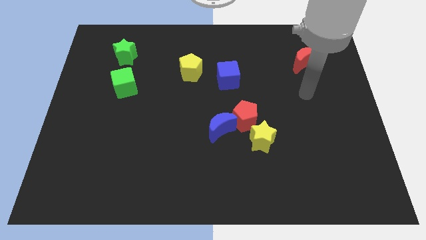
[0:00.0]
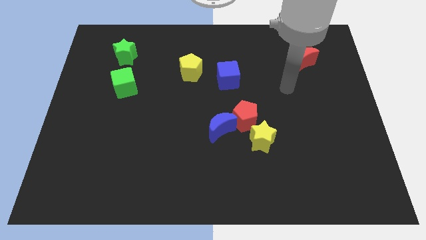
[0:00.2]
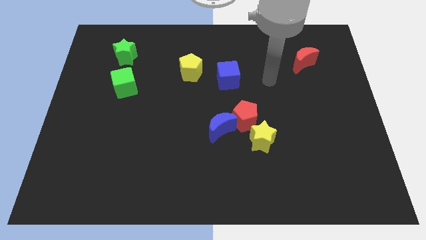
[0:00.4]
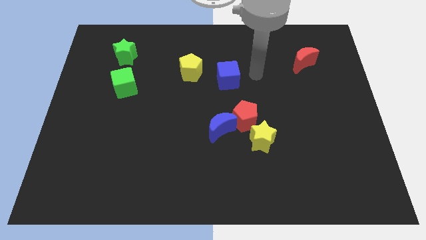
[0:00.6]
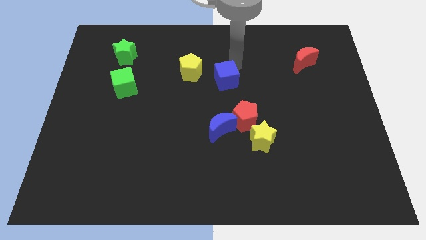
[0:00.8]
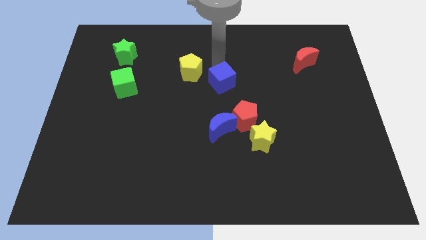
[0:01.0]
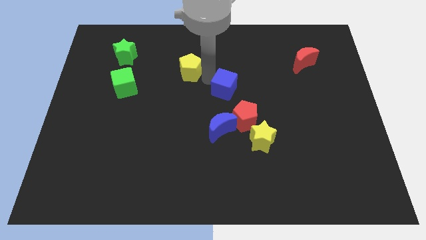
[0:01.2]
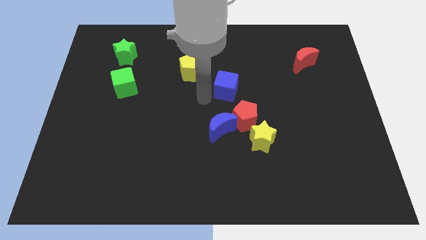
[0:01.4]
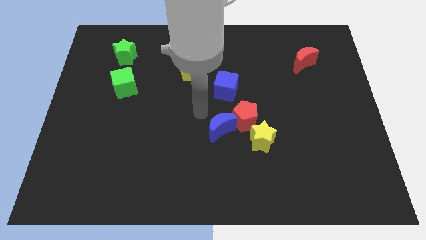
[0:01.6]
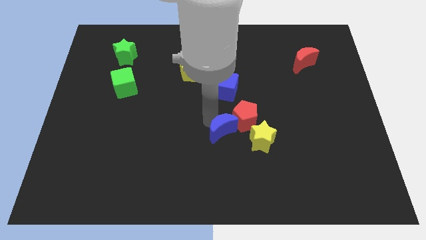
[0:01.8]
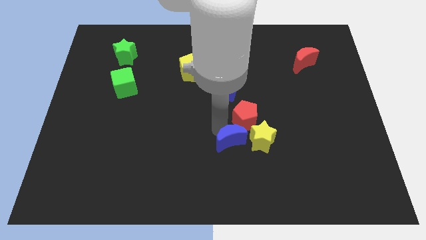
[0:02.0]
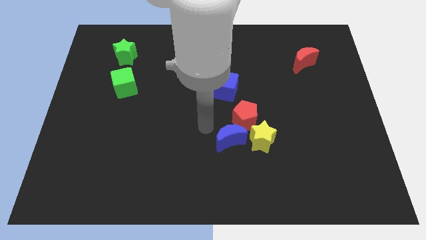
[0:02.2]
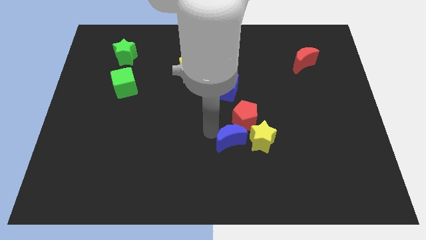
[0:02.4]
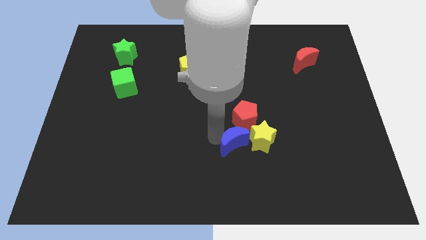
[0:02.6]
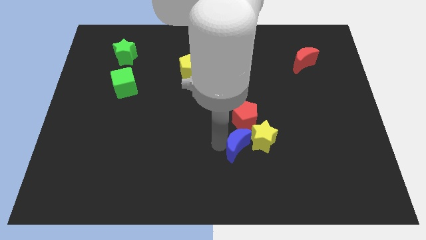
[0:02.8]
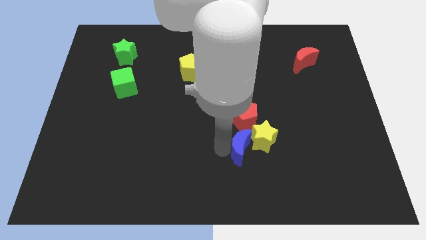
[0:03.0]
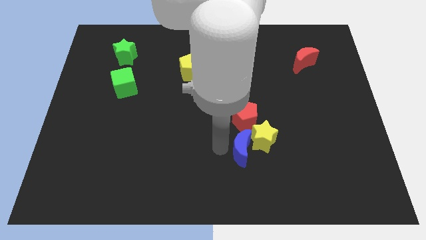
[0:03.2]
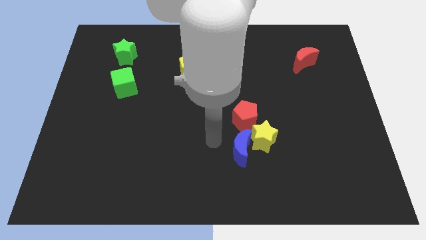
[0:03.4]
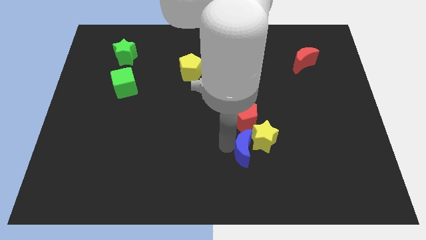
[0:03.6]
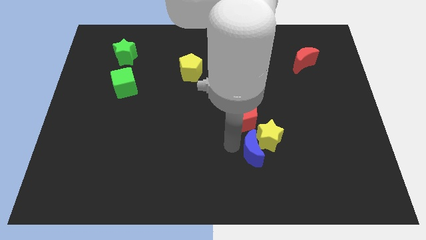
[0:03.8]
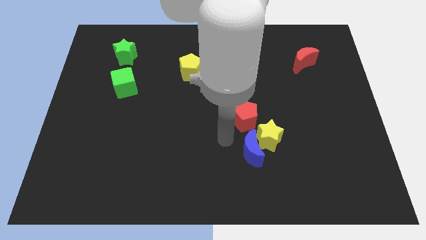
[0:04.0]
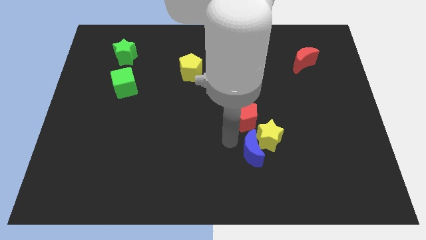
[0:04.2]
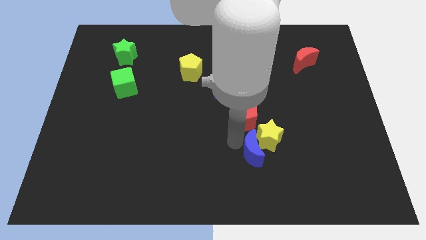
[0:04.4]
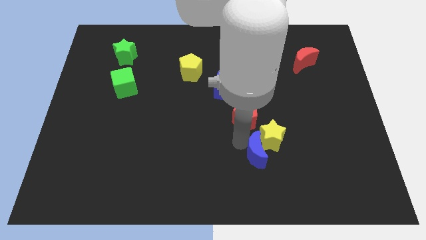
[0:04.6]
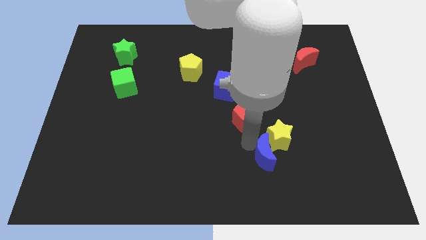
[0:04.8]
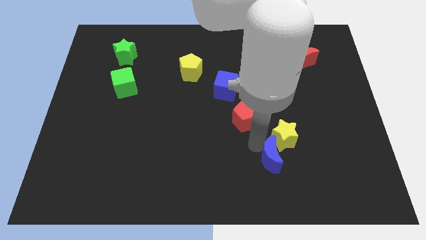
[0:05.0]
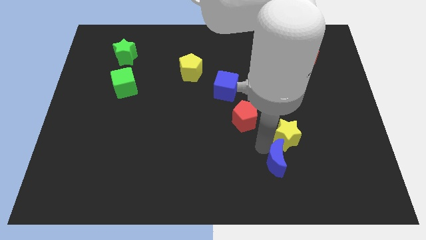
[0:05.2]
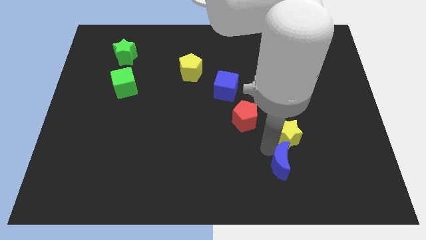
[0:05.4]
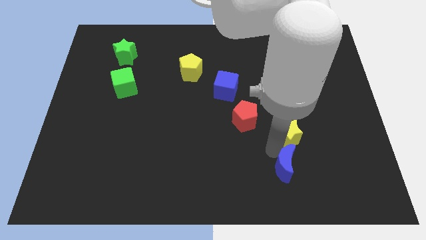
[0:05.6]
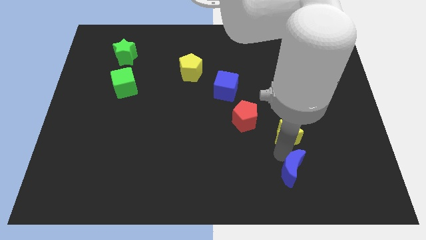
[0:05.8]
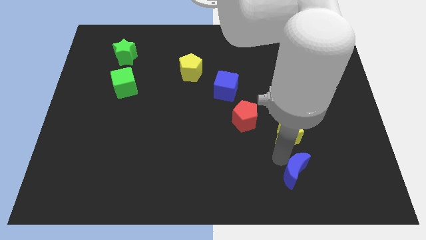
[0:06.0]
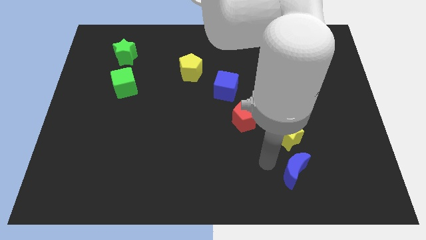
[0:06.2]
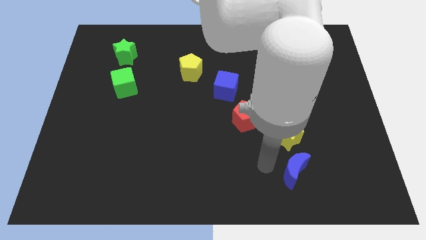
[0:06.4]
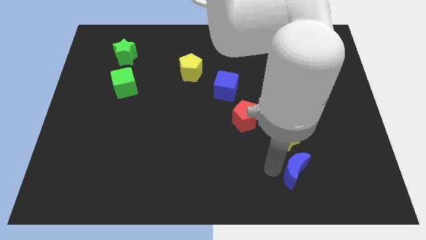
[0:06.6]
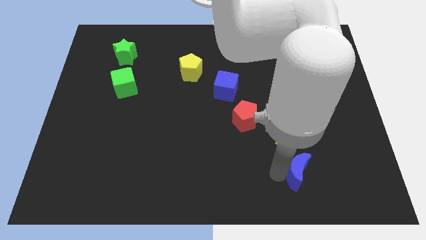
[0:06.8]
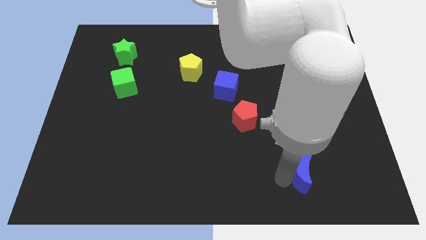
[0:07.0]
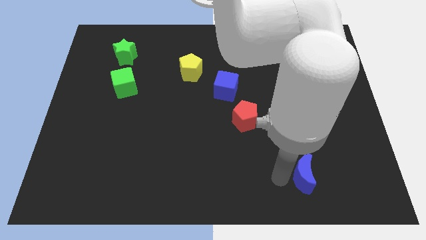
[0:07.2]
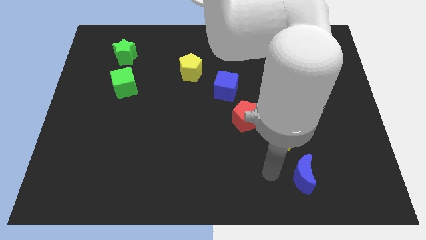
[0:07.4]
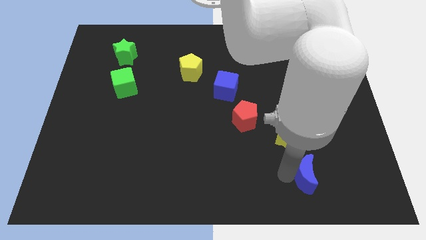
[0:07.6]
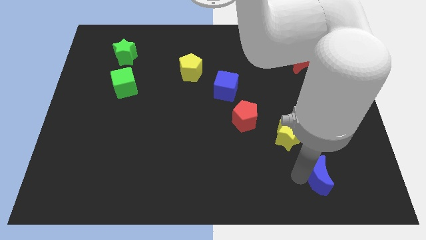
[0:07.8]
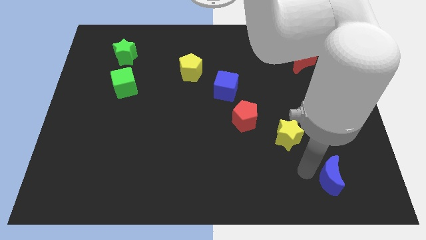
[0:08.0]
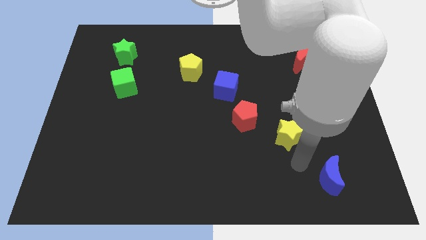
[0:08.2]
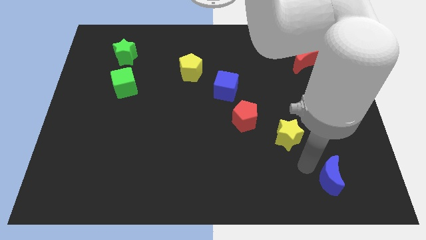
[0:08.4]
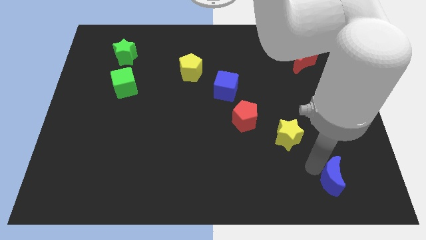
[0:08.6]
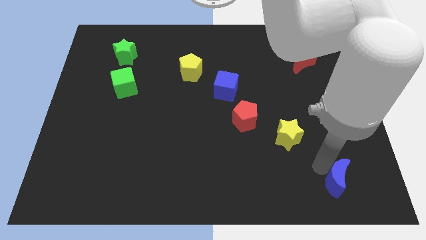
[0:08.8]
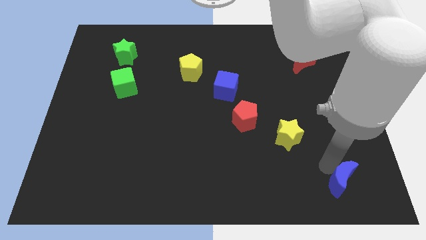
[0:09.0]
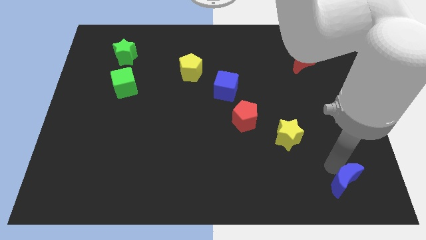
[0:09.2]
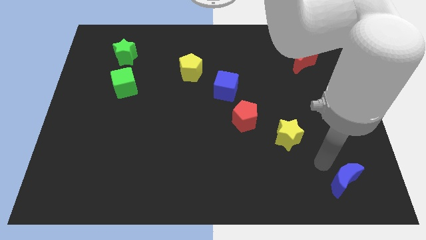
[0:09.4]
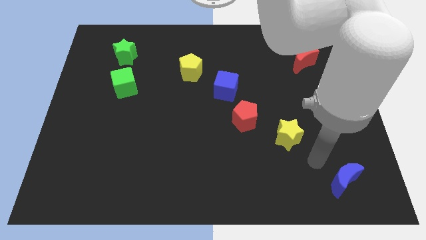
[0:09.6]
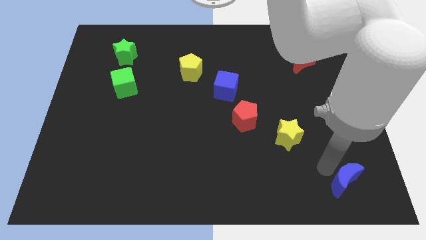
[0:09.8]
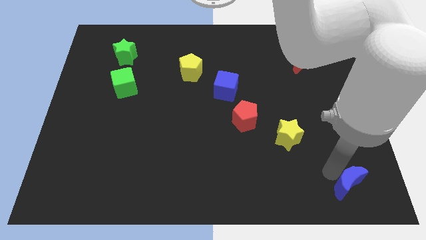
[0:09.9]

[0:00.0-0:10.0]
slide the blue moon to the bottom right

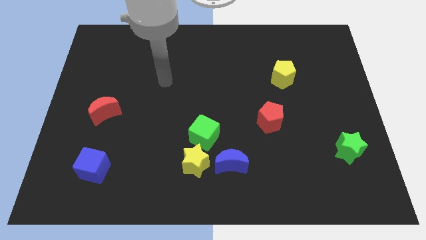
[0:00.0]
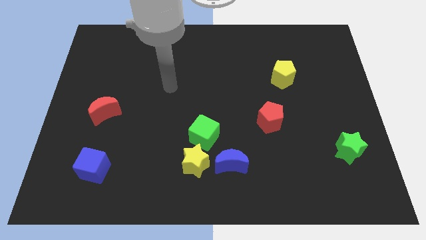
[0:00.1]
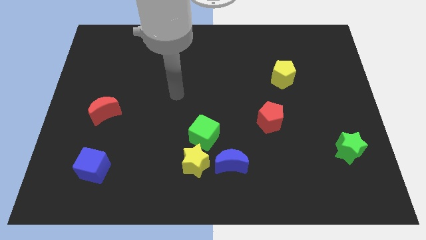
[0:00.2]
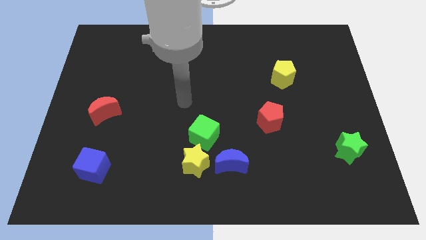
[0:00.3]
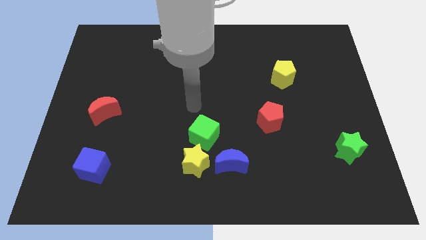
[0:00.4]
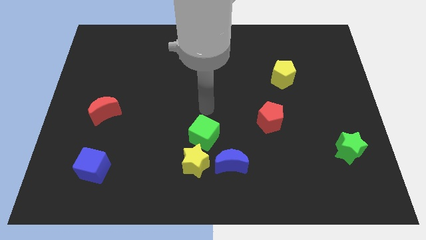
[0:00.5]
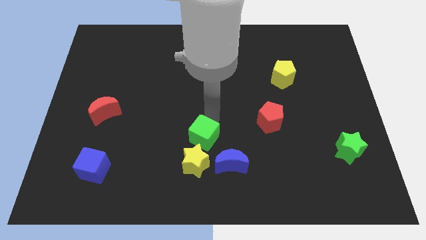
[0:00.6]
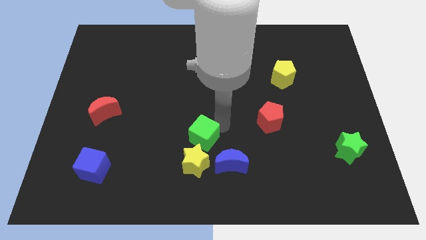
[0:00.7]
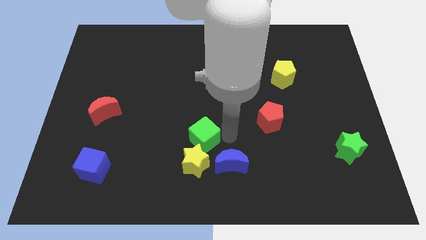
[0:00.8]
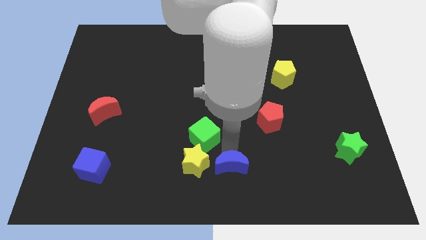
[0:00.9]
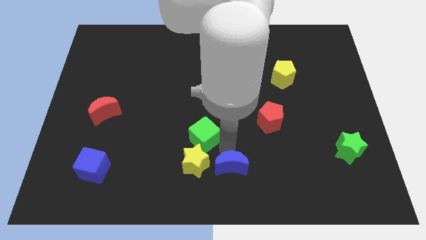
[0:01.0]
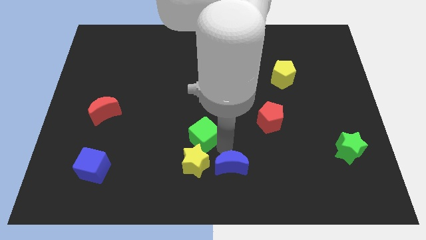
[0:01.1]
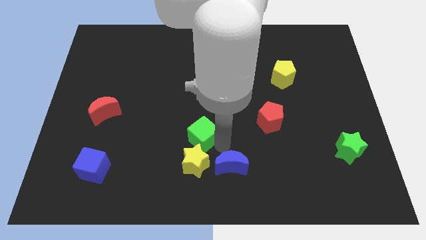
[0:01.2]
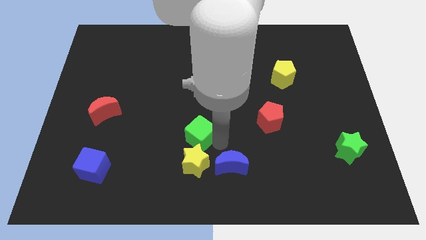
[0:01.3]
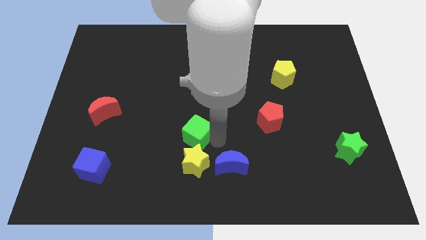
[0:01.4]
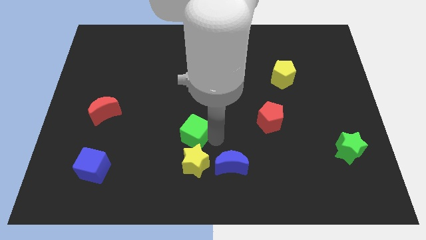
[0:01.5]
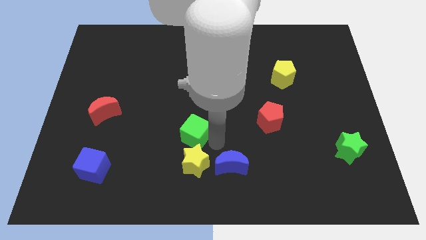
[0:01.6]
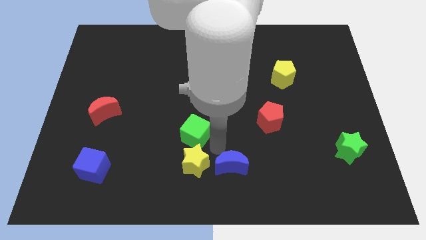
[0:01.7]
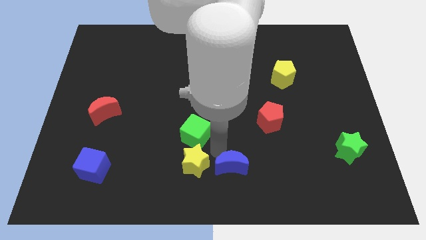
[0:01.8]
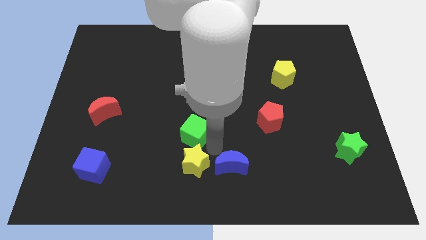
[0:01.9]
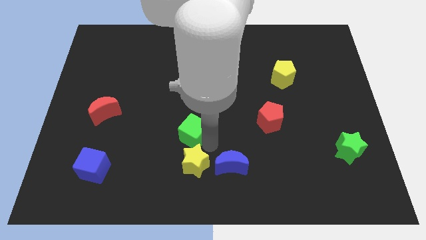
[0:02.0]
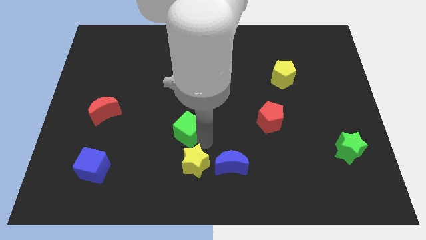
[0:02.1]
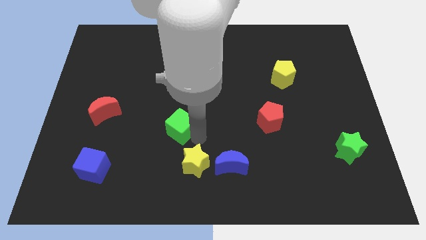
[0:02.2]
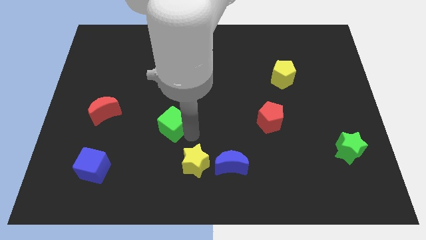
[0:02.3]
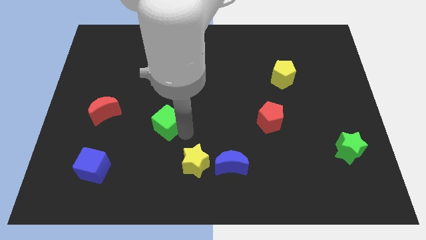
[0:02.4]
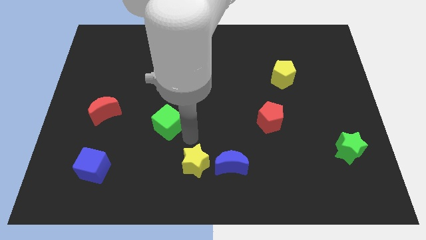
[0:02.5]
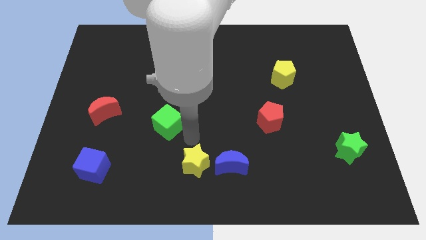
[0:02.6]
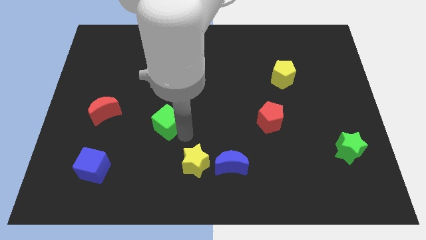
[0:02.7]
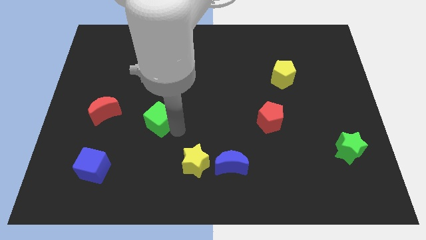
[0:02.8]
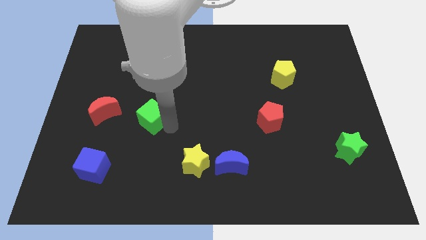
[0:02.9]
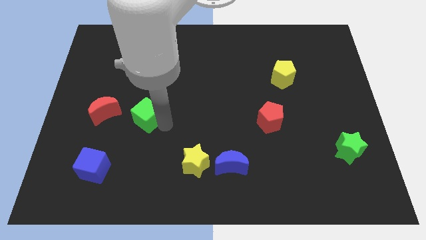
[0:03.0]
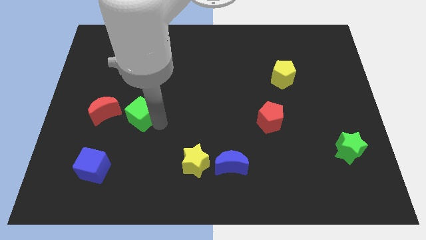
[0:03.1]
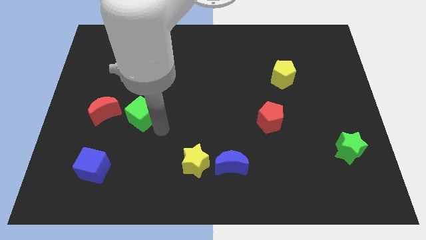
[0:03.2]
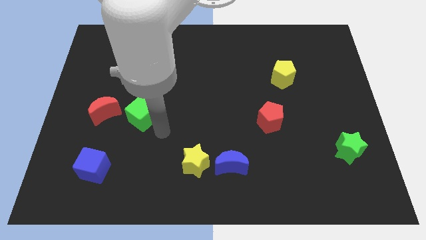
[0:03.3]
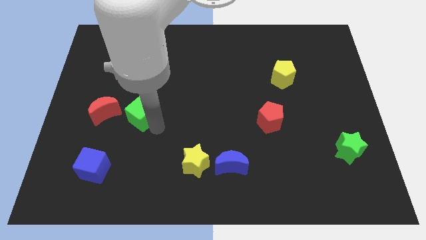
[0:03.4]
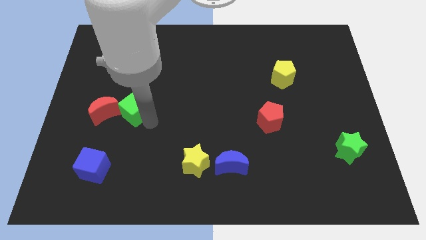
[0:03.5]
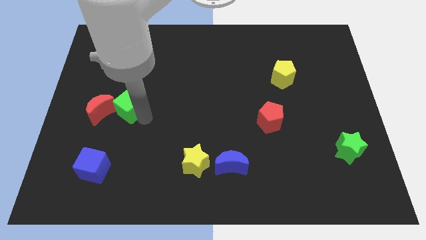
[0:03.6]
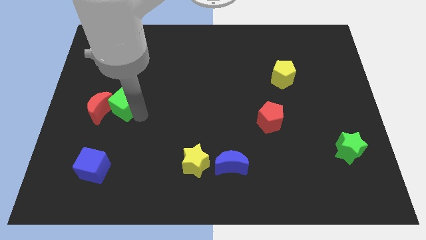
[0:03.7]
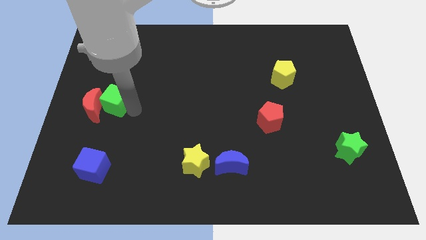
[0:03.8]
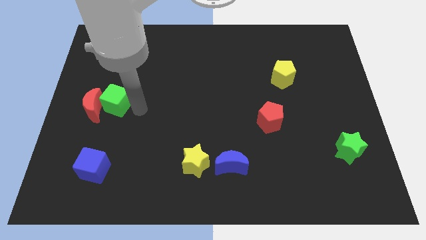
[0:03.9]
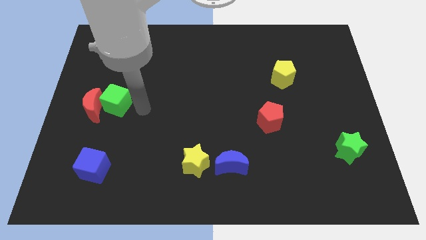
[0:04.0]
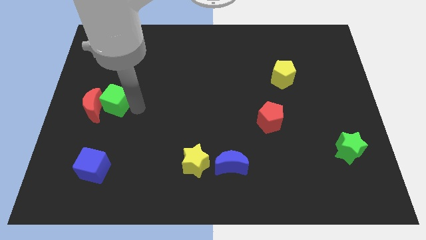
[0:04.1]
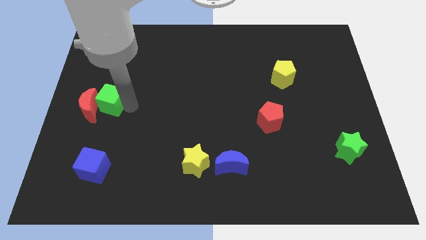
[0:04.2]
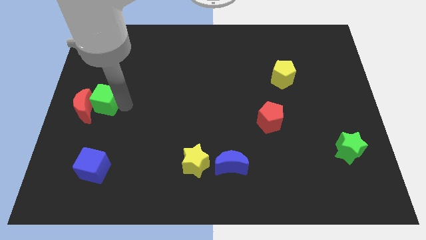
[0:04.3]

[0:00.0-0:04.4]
move the green cube to the left side
